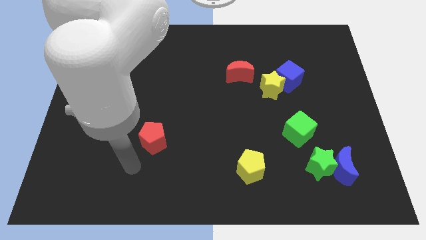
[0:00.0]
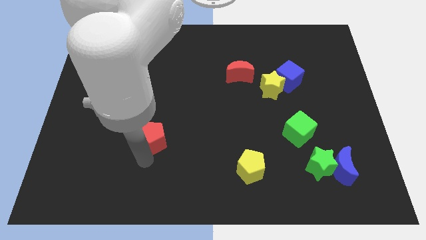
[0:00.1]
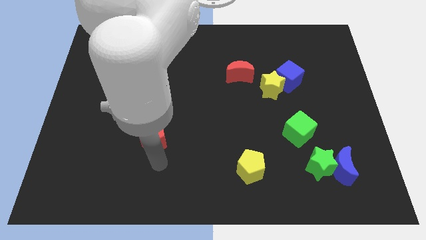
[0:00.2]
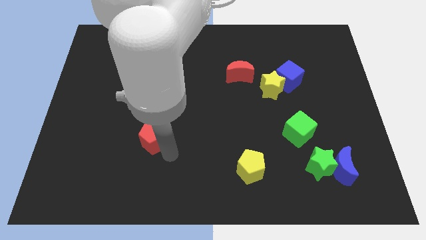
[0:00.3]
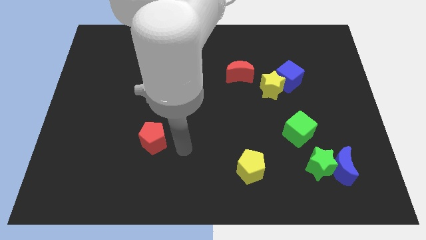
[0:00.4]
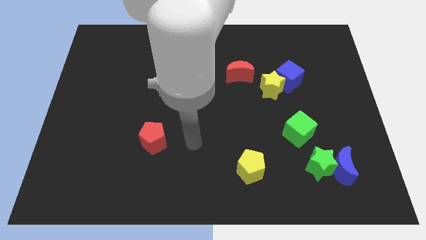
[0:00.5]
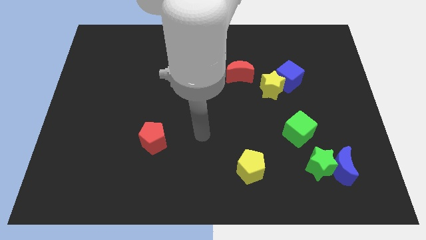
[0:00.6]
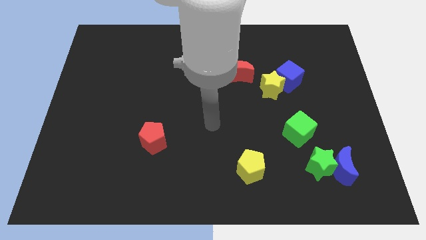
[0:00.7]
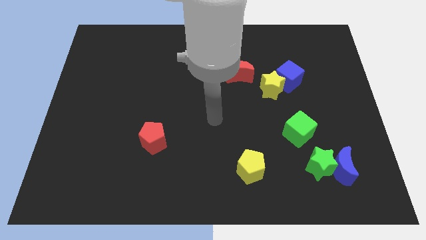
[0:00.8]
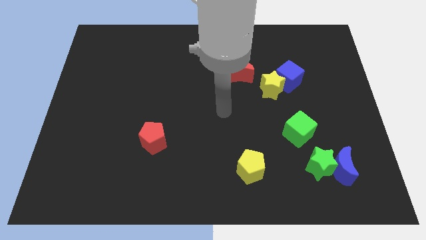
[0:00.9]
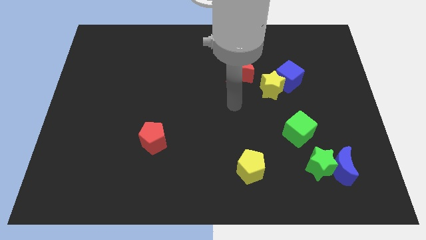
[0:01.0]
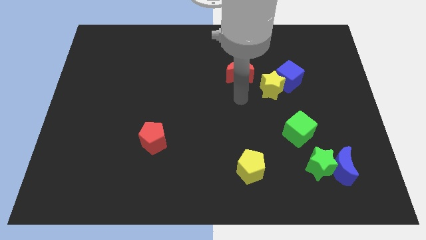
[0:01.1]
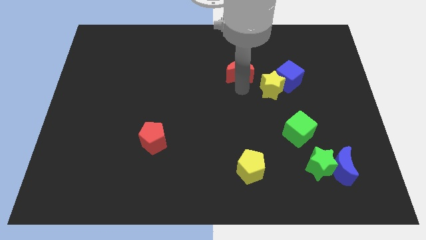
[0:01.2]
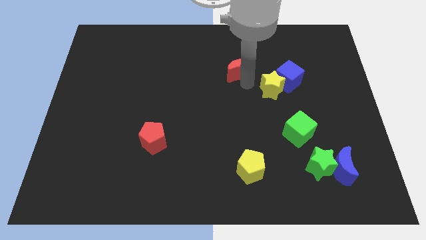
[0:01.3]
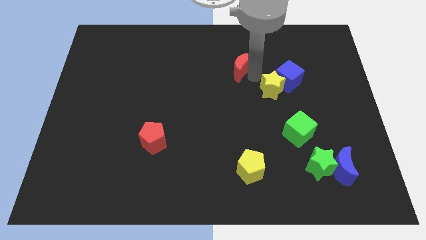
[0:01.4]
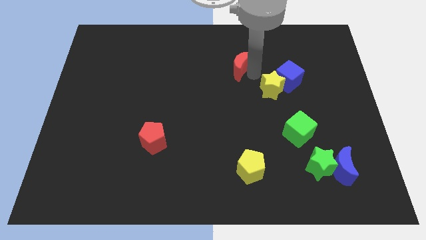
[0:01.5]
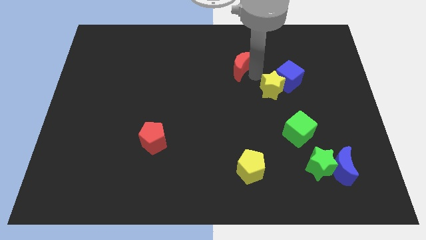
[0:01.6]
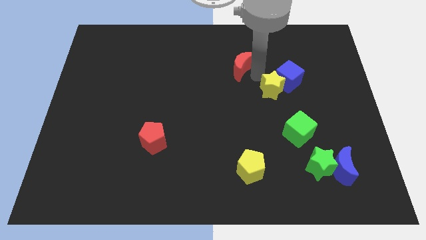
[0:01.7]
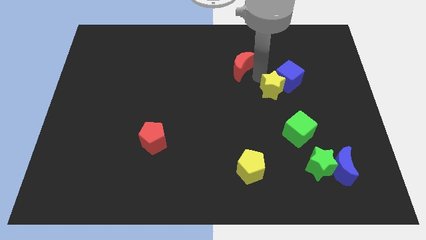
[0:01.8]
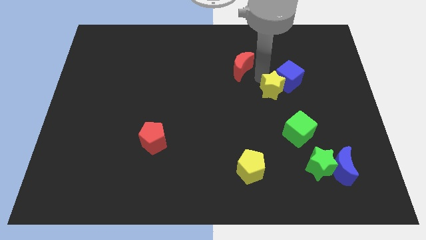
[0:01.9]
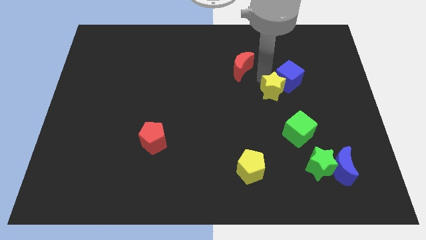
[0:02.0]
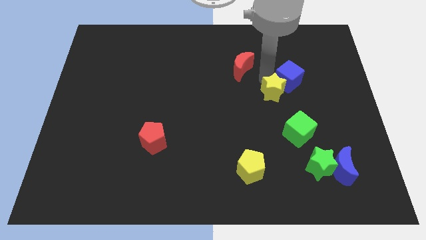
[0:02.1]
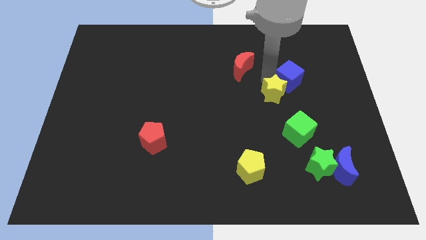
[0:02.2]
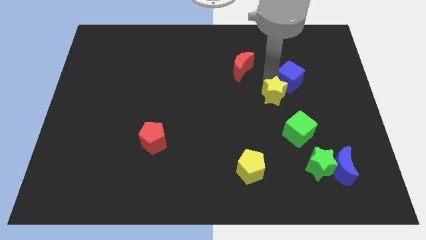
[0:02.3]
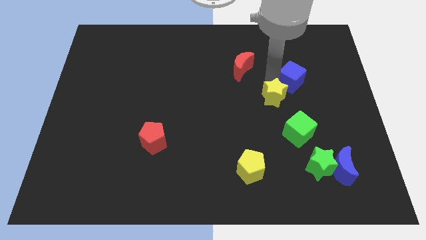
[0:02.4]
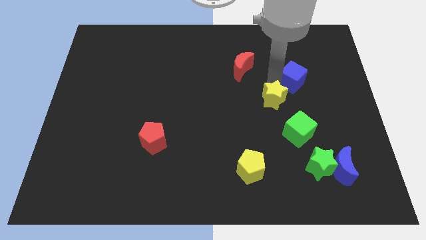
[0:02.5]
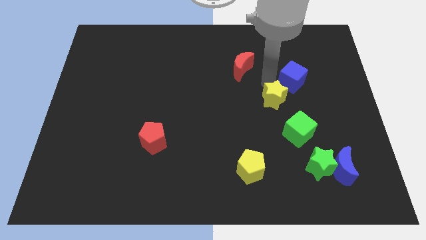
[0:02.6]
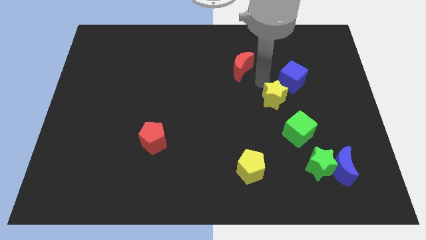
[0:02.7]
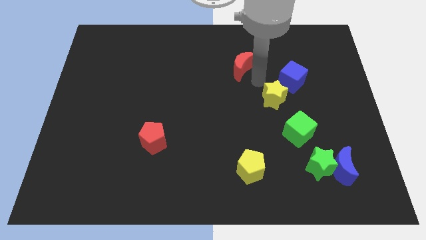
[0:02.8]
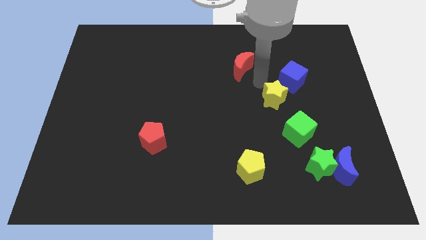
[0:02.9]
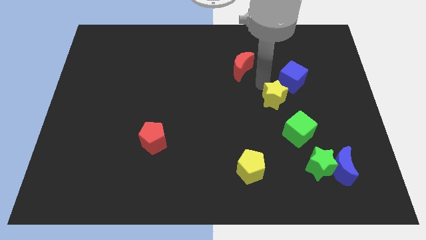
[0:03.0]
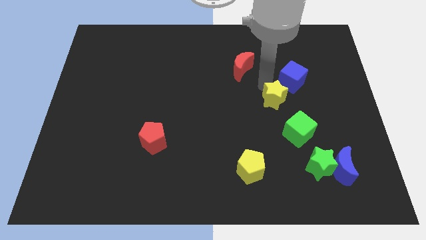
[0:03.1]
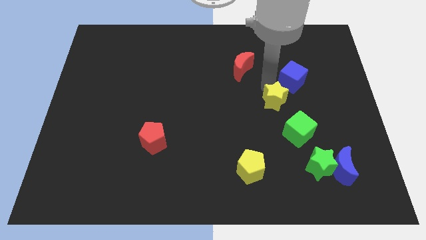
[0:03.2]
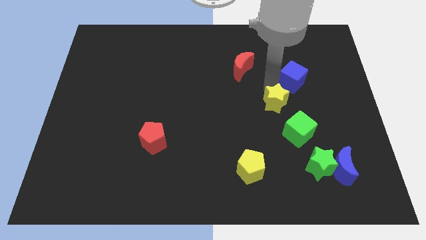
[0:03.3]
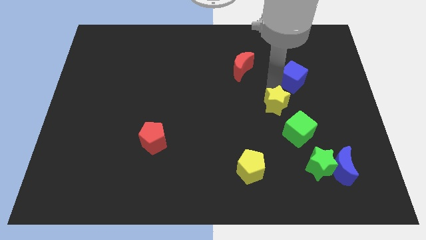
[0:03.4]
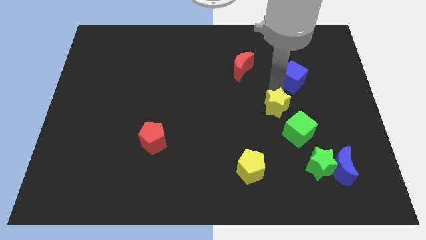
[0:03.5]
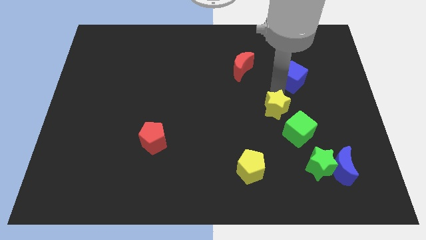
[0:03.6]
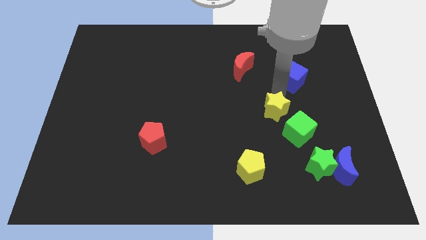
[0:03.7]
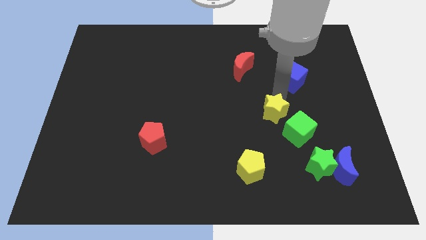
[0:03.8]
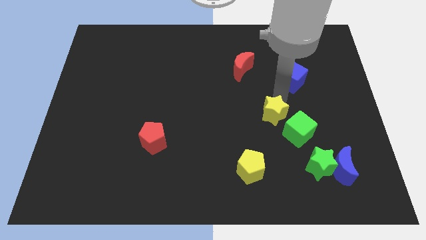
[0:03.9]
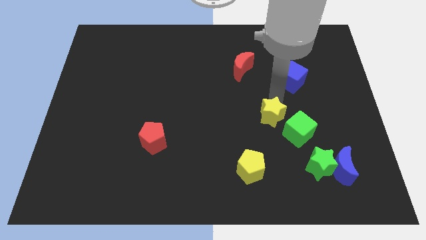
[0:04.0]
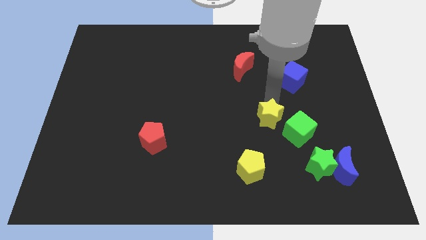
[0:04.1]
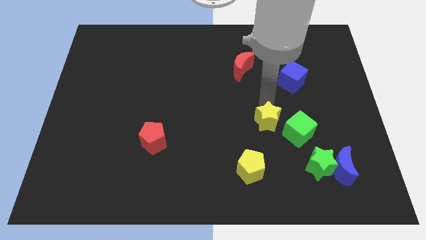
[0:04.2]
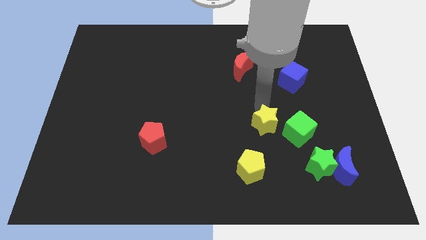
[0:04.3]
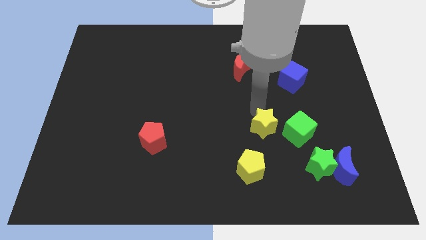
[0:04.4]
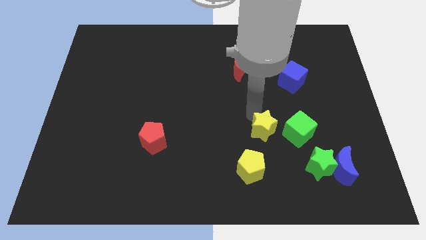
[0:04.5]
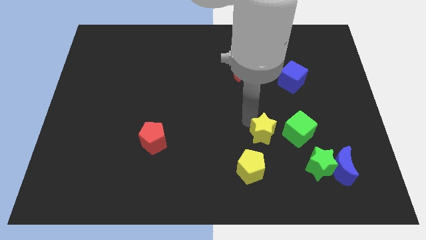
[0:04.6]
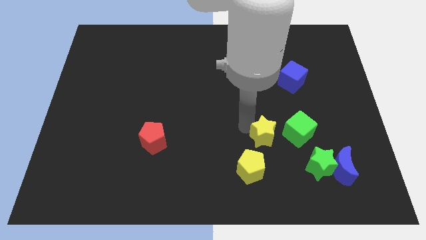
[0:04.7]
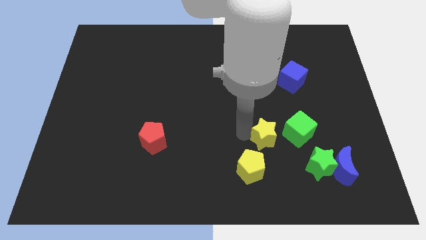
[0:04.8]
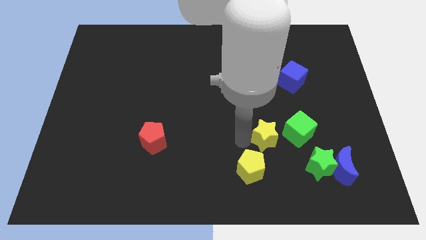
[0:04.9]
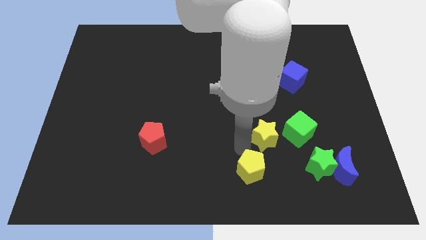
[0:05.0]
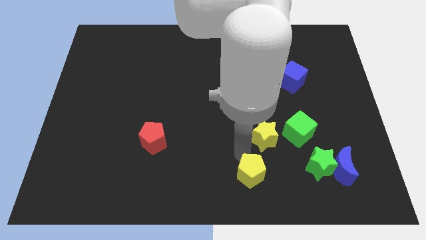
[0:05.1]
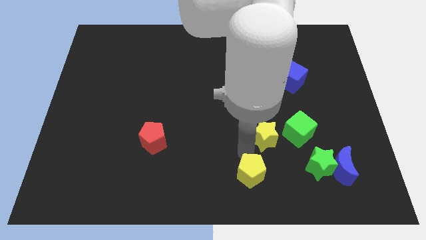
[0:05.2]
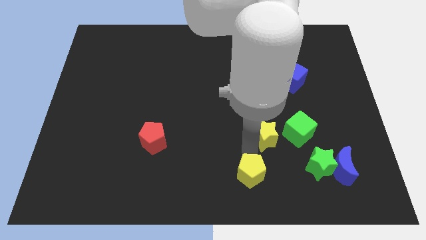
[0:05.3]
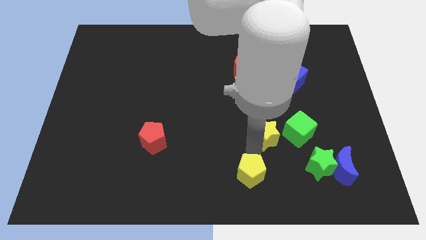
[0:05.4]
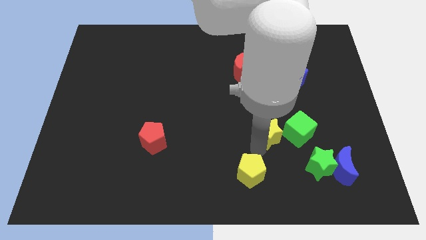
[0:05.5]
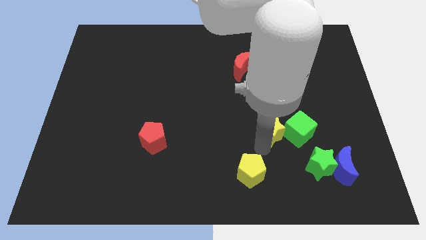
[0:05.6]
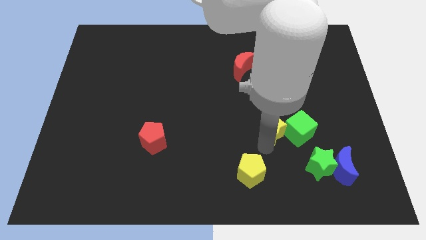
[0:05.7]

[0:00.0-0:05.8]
move the yellow star close to the green cube

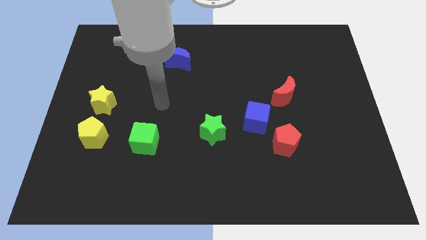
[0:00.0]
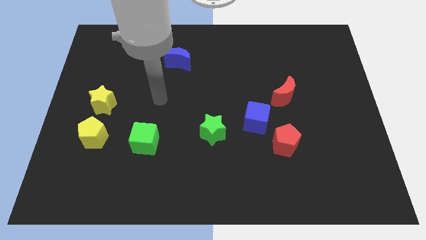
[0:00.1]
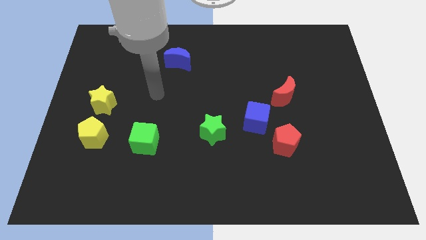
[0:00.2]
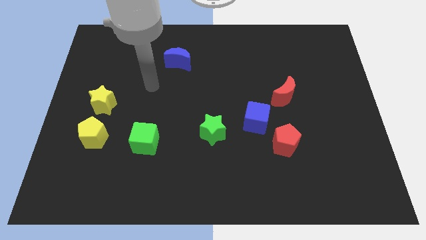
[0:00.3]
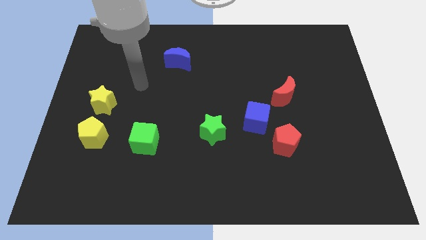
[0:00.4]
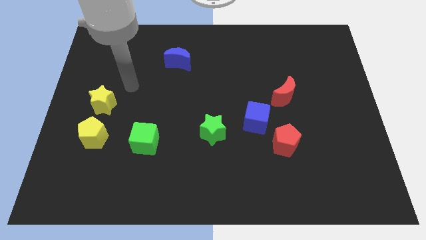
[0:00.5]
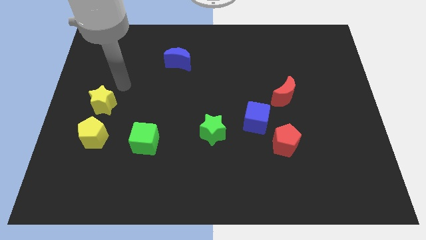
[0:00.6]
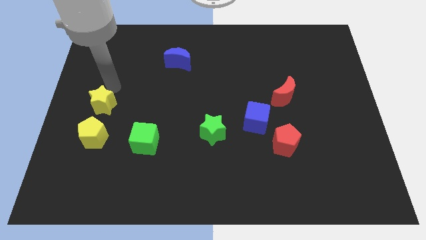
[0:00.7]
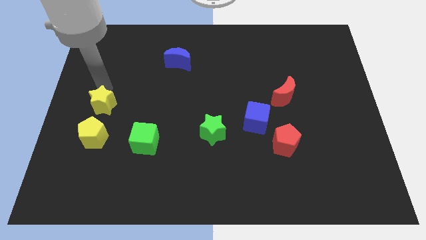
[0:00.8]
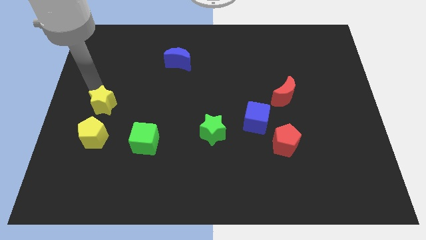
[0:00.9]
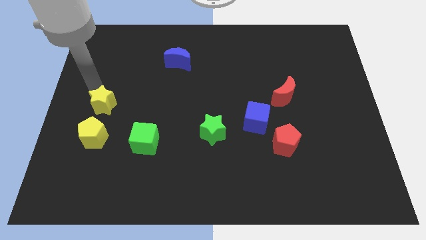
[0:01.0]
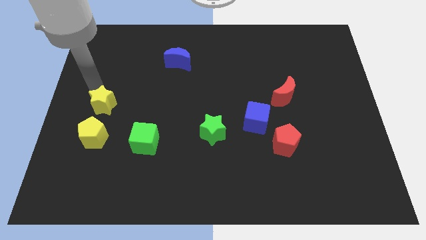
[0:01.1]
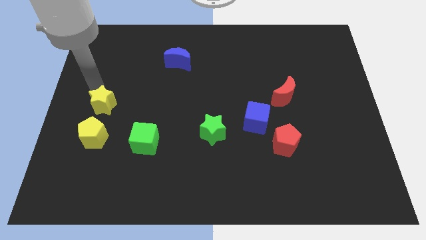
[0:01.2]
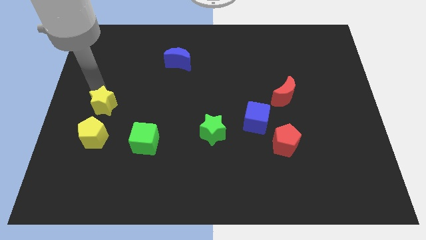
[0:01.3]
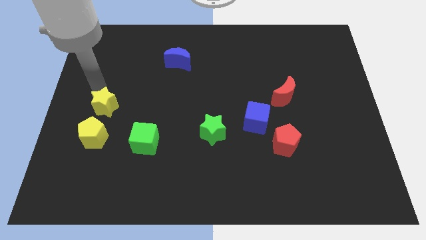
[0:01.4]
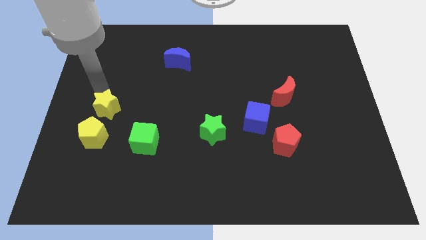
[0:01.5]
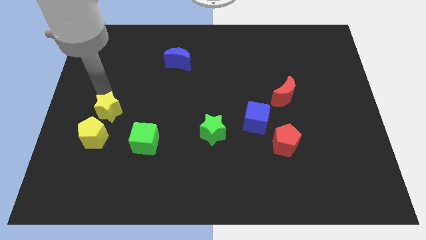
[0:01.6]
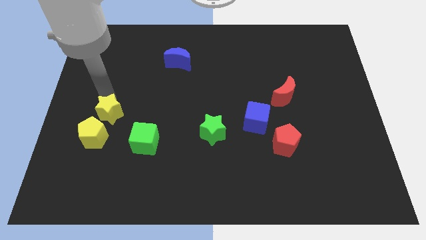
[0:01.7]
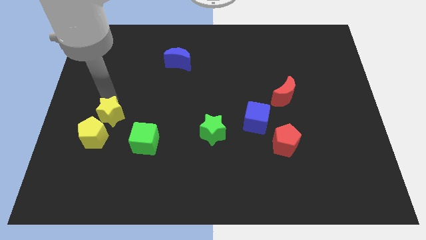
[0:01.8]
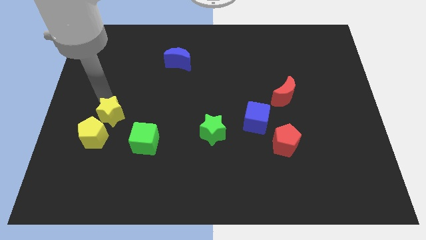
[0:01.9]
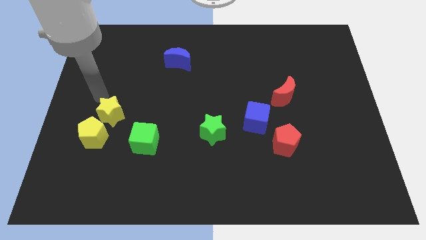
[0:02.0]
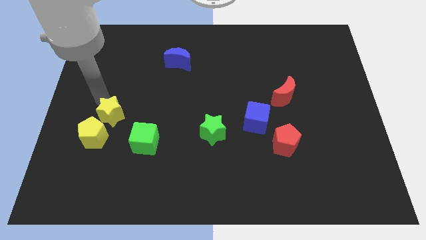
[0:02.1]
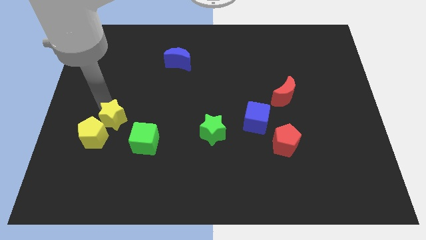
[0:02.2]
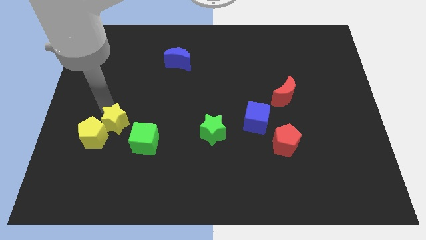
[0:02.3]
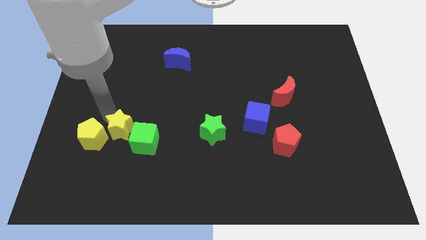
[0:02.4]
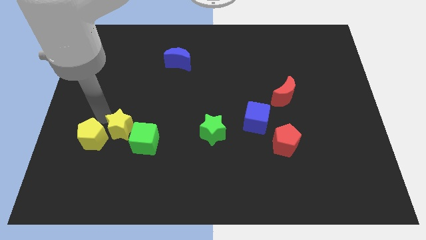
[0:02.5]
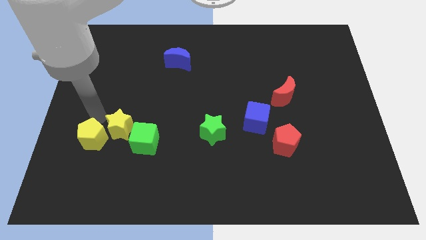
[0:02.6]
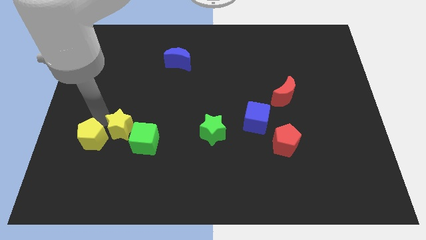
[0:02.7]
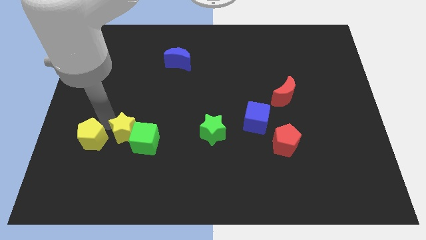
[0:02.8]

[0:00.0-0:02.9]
move the yellow star next to the green cube
